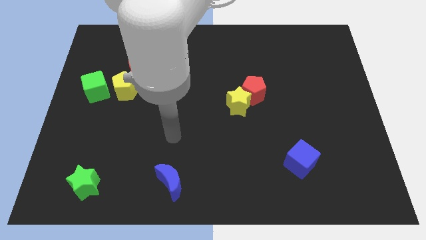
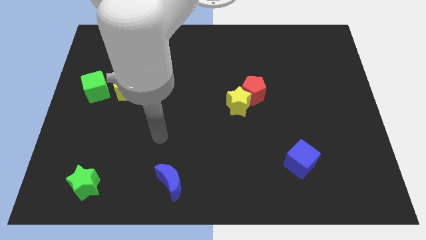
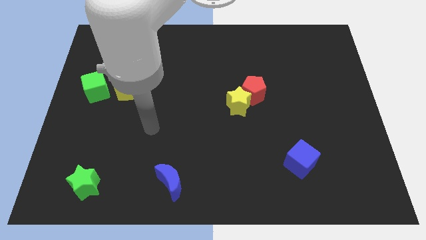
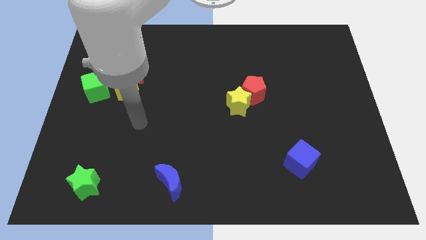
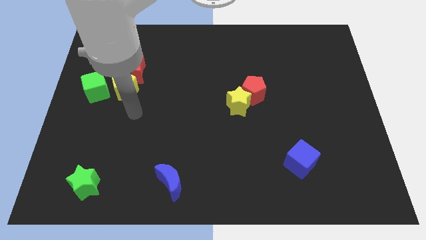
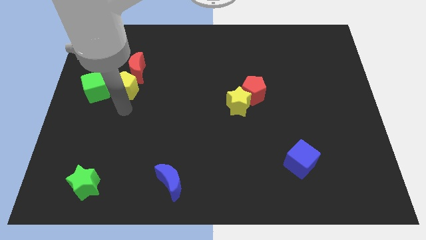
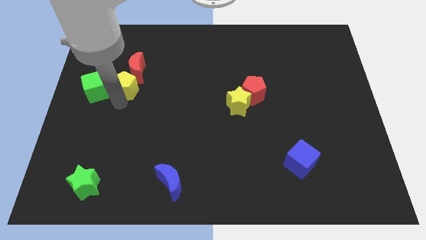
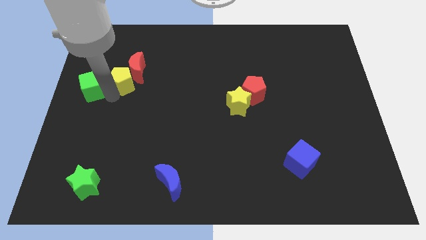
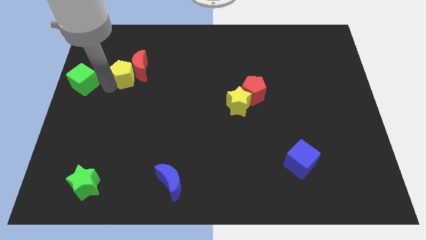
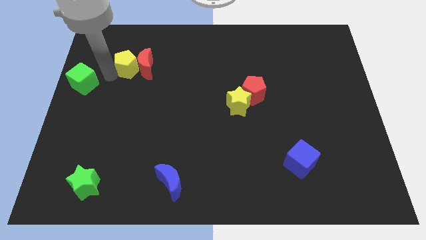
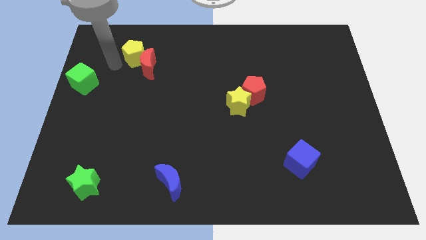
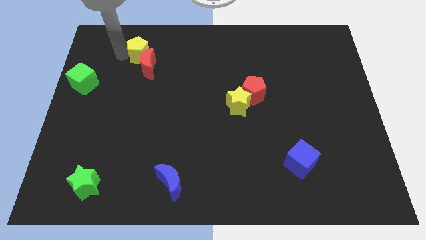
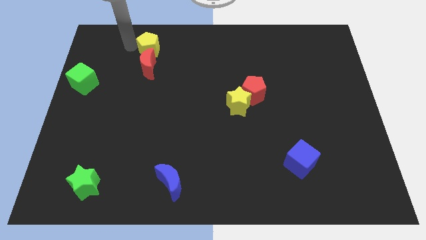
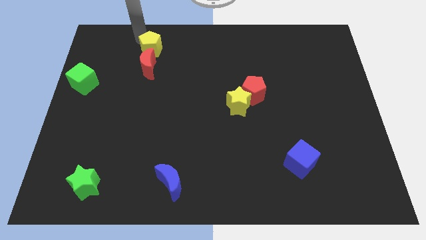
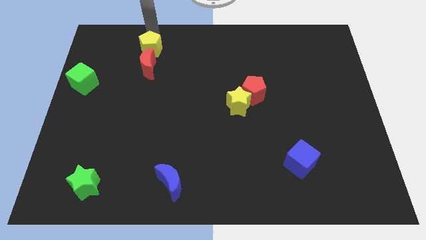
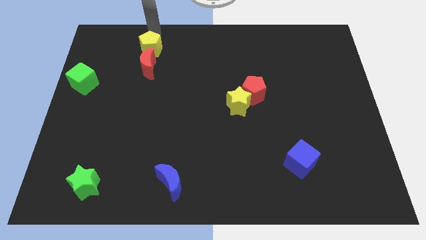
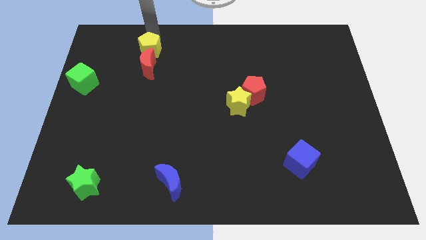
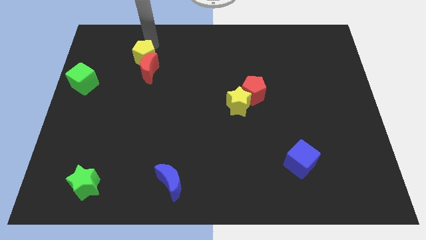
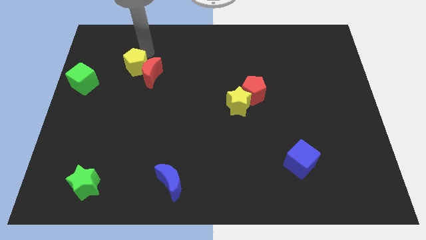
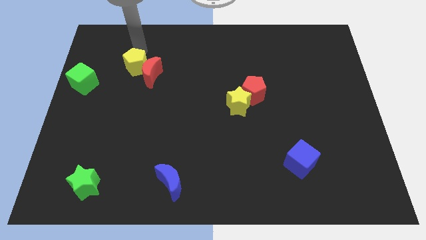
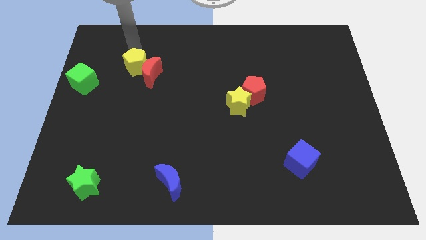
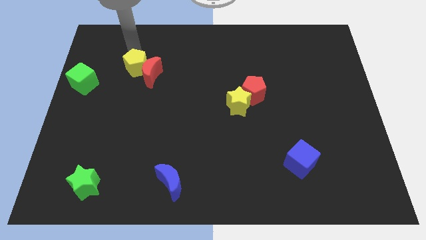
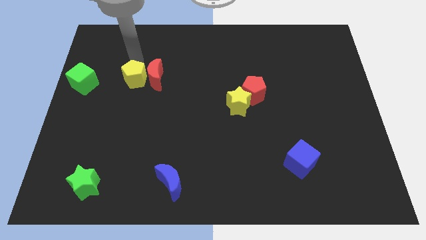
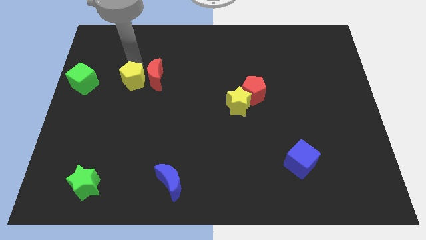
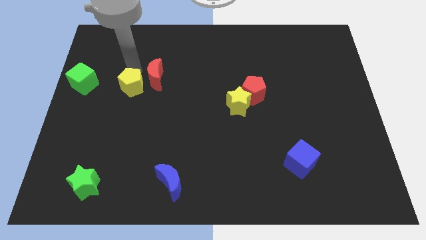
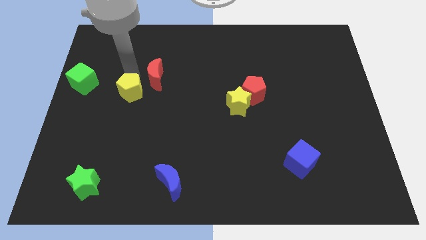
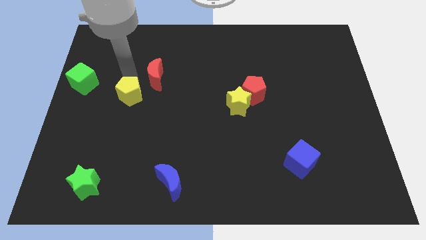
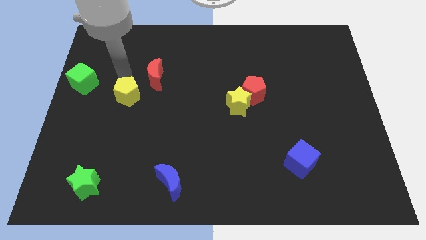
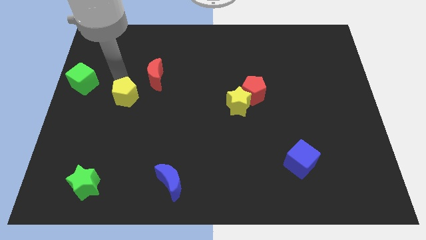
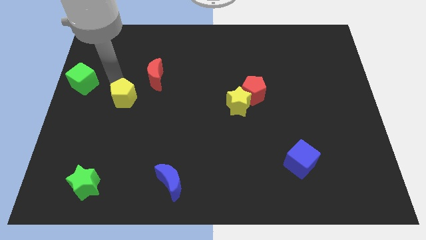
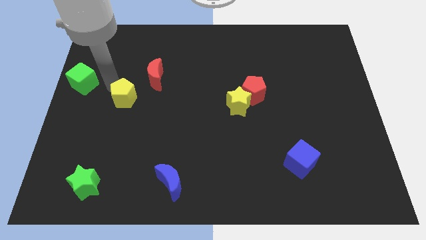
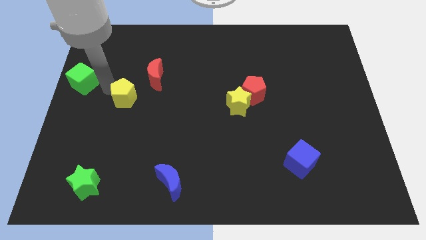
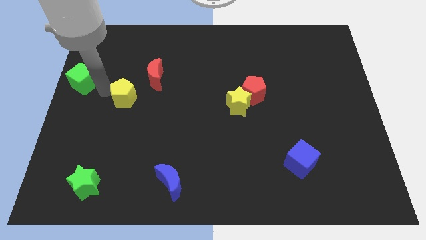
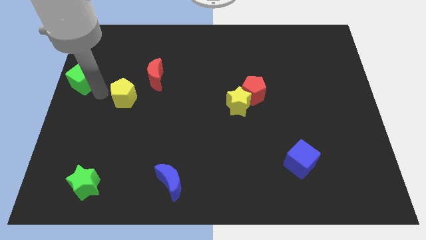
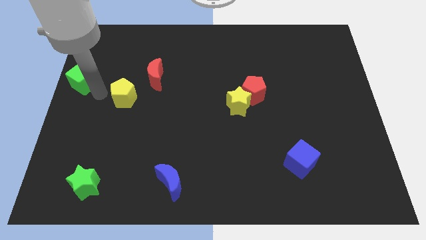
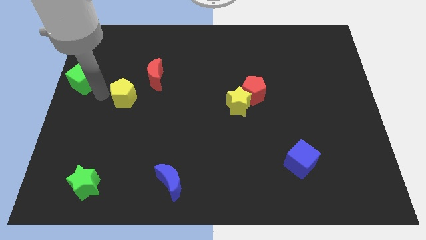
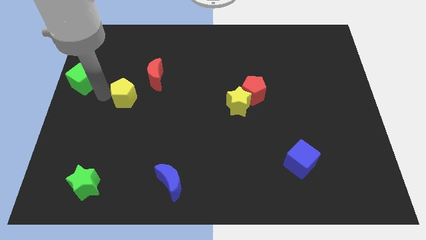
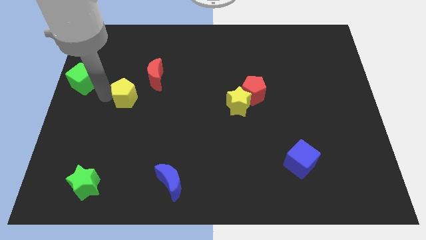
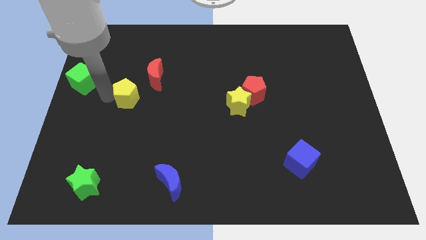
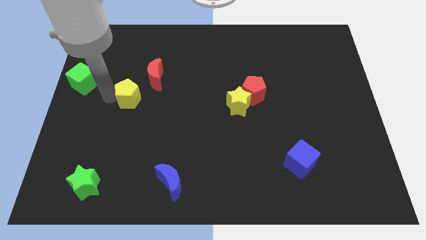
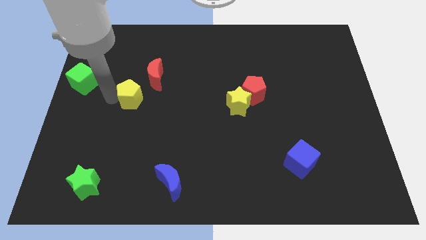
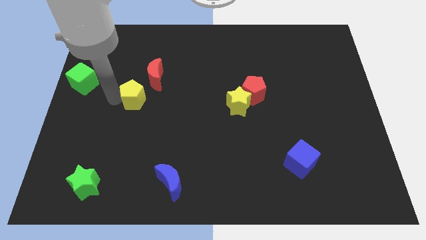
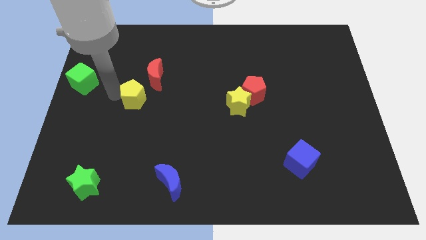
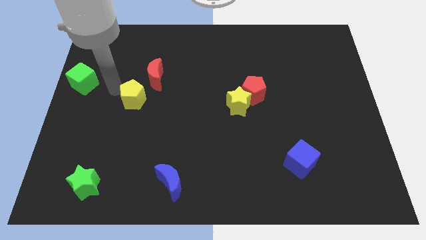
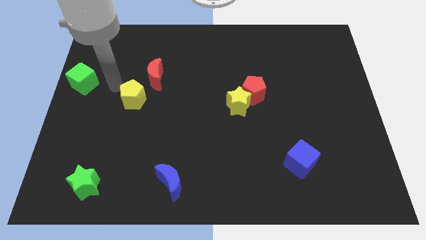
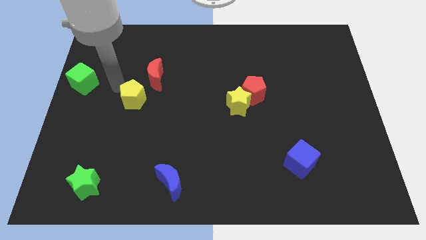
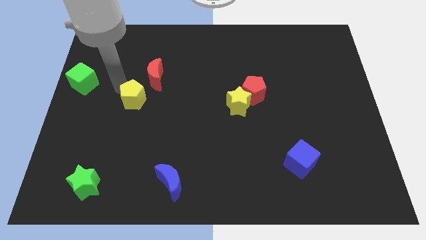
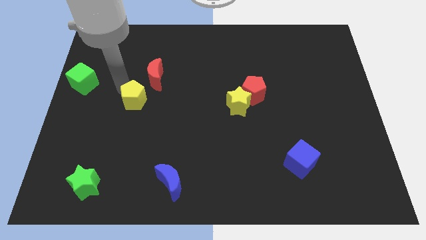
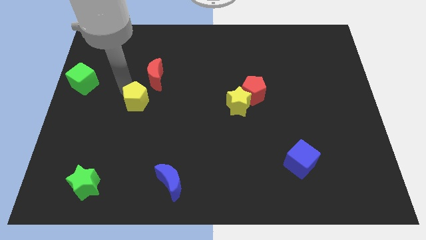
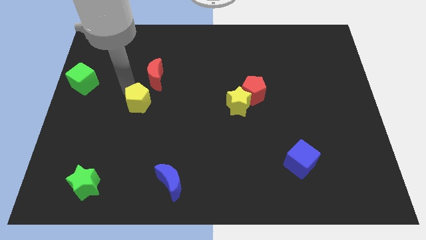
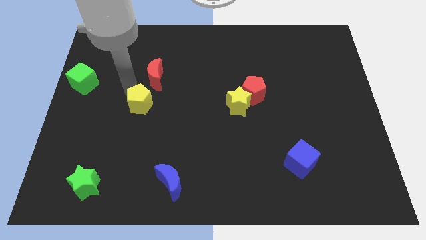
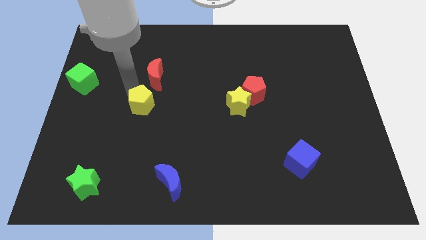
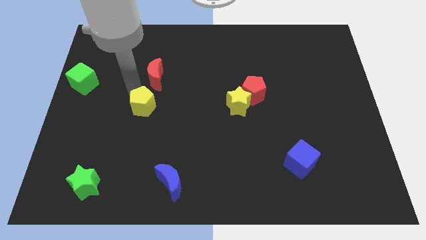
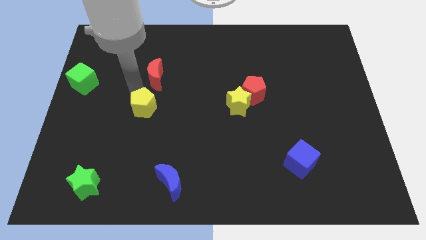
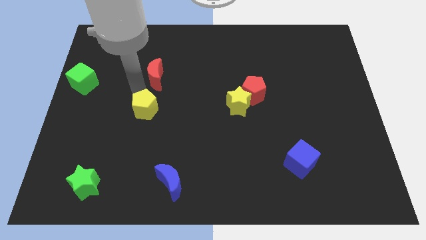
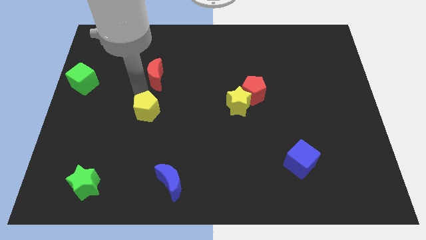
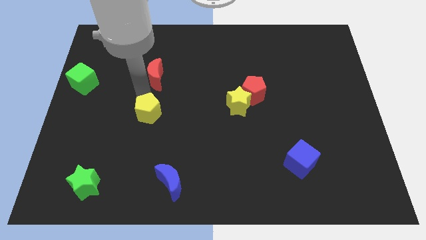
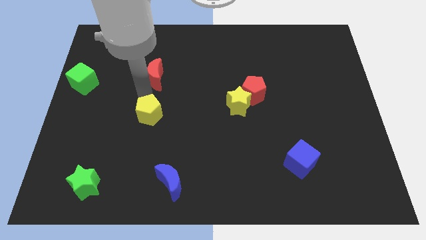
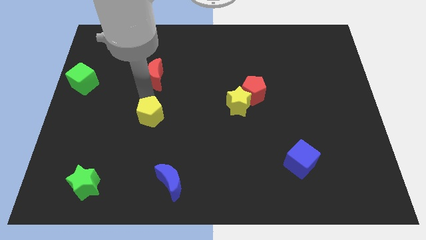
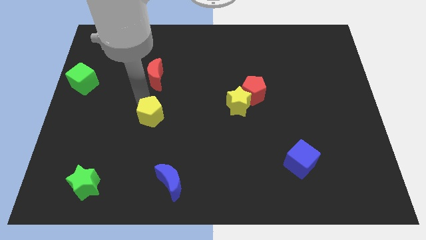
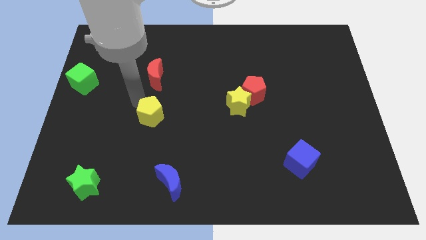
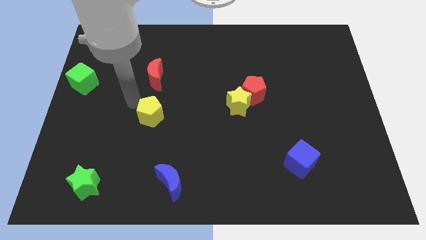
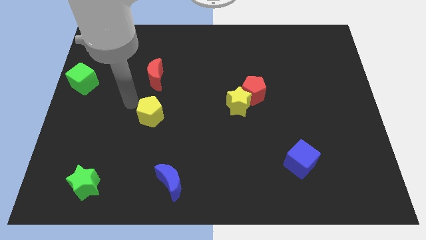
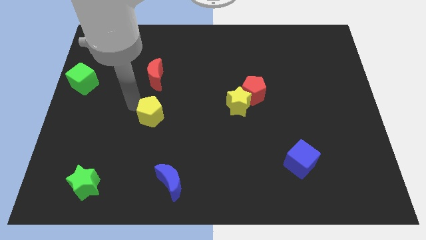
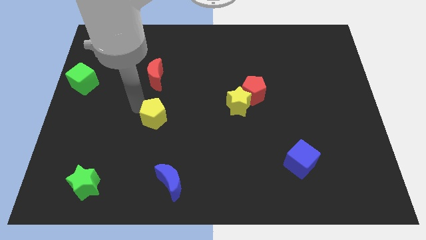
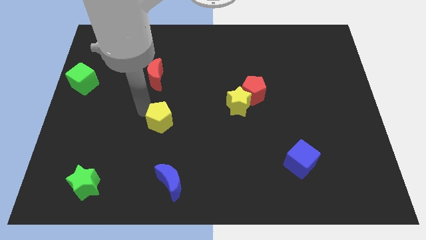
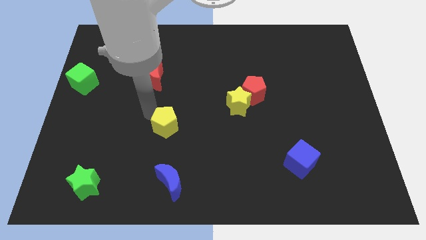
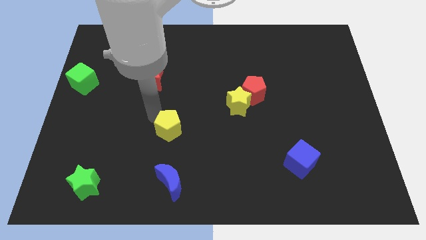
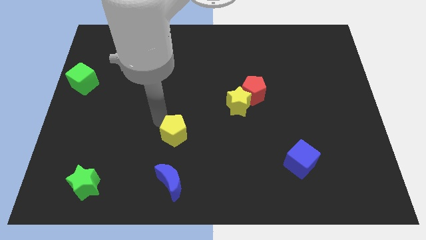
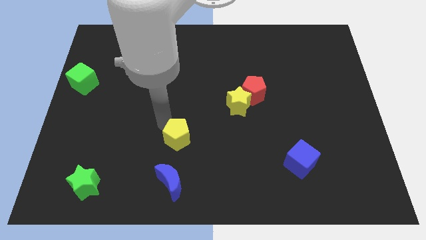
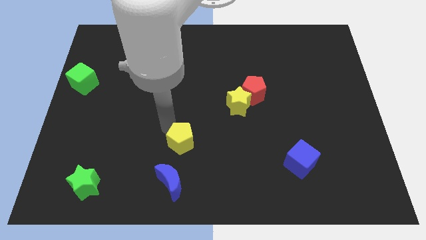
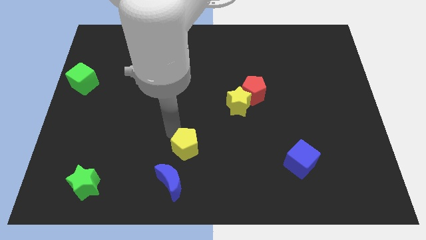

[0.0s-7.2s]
push the yellow pentagon to the top right side of the blue moon
